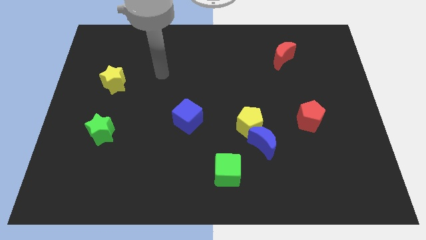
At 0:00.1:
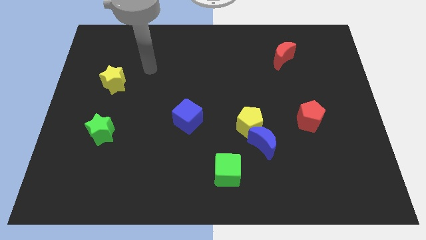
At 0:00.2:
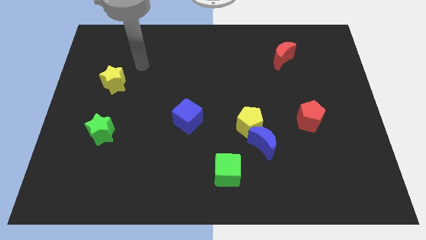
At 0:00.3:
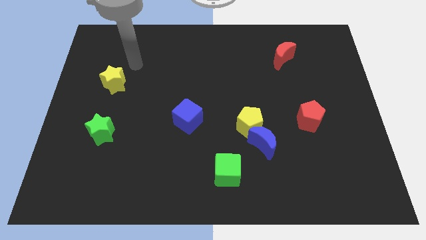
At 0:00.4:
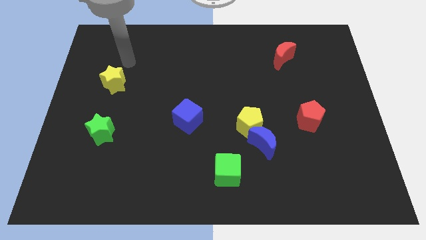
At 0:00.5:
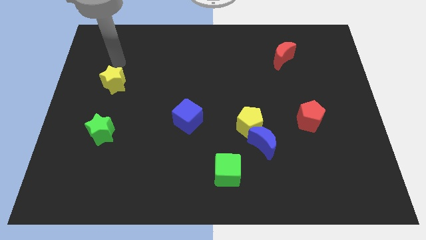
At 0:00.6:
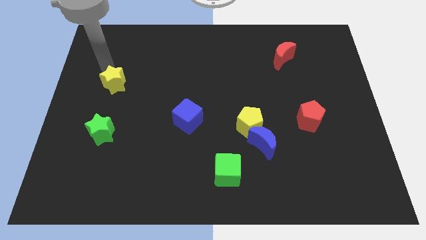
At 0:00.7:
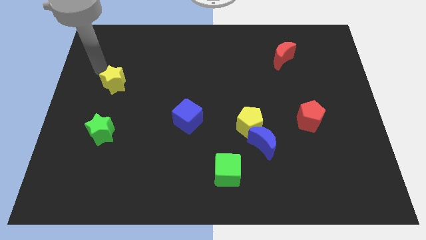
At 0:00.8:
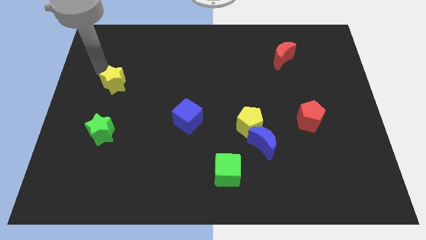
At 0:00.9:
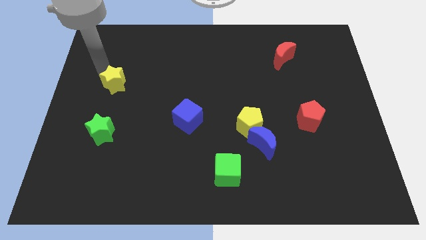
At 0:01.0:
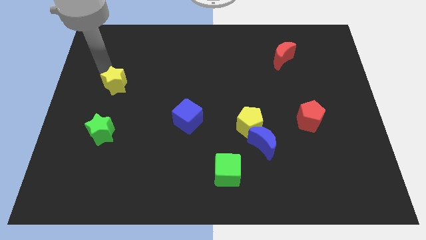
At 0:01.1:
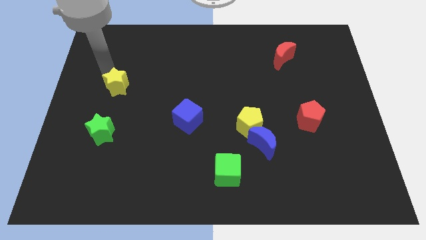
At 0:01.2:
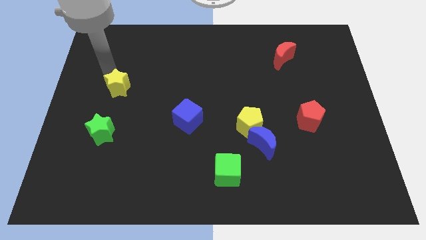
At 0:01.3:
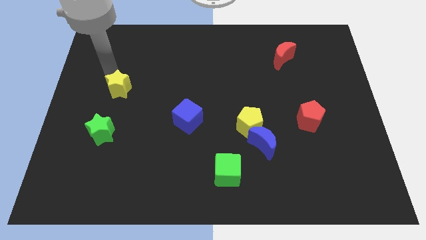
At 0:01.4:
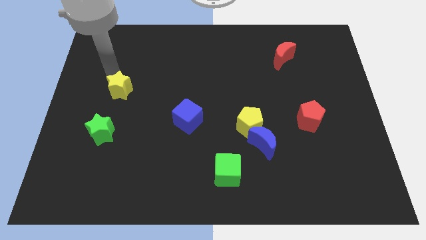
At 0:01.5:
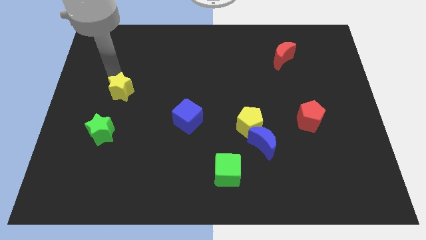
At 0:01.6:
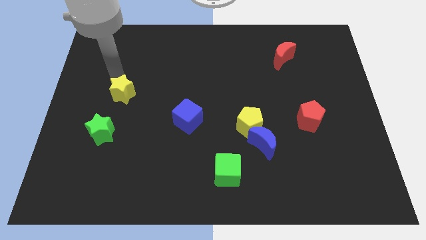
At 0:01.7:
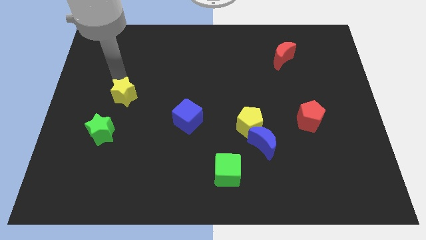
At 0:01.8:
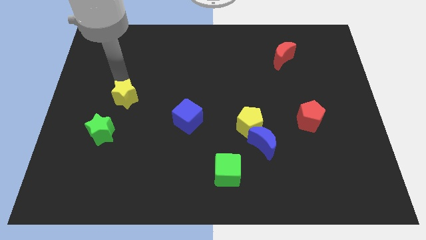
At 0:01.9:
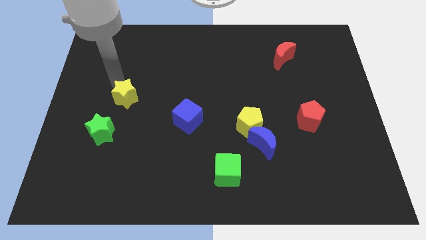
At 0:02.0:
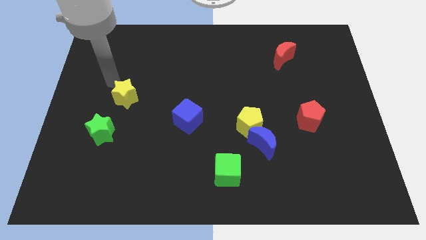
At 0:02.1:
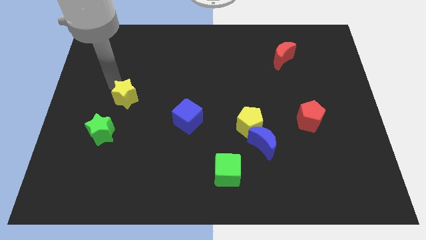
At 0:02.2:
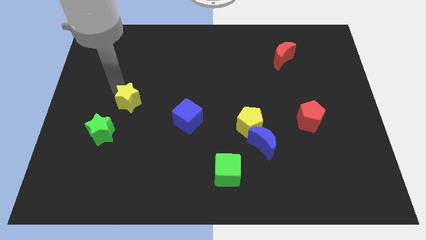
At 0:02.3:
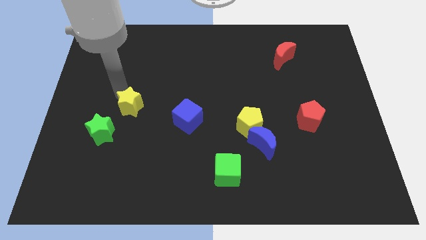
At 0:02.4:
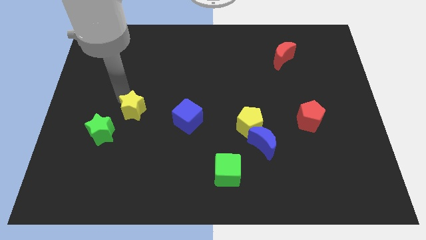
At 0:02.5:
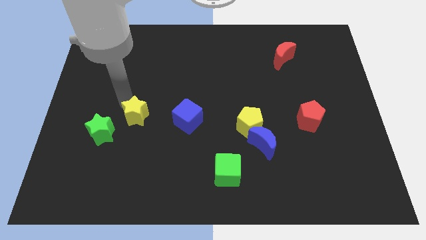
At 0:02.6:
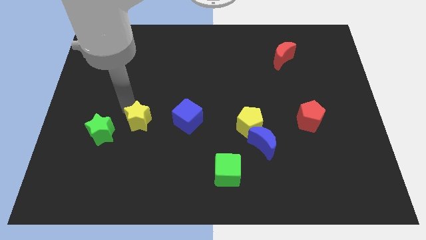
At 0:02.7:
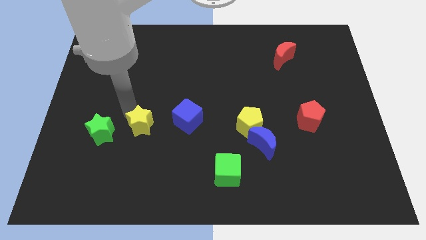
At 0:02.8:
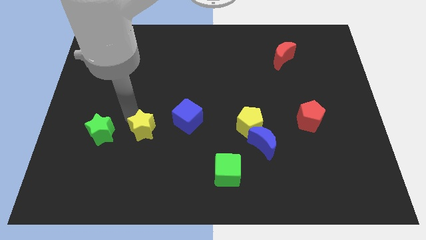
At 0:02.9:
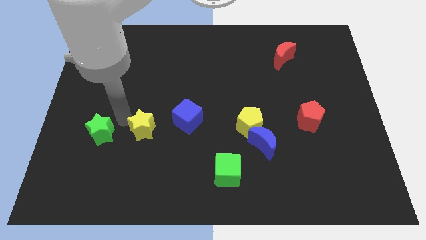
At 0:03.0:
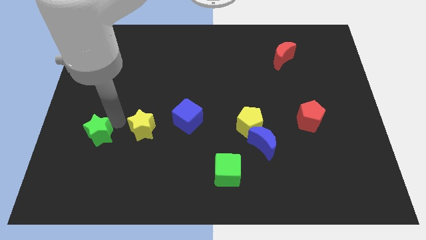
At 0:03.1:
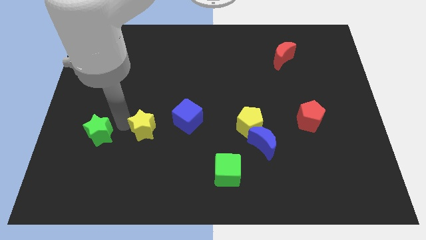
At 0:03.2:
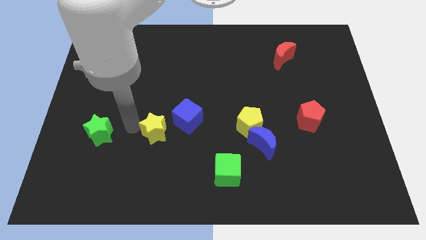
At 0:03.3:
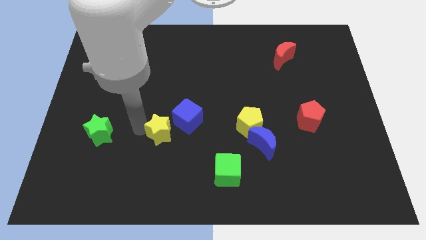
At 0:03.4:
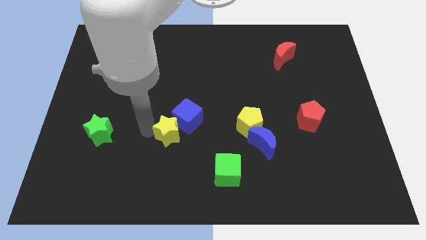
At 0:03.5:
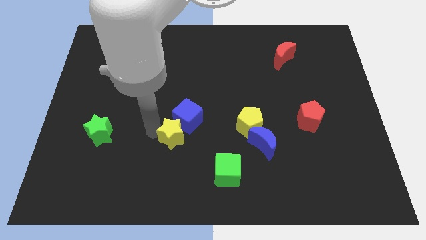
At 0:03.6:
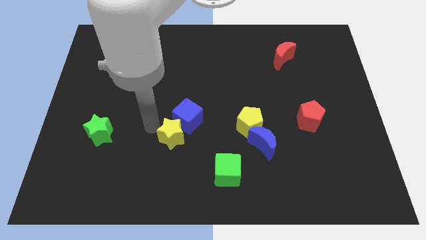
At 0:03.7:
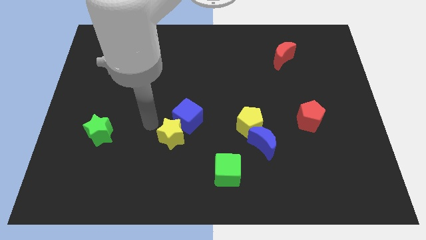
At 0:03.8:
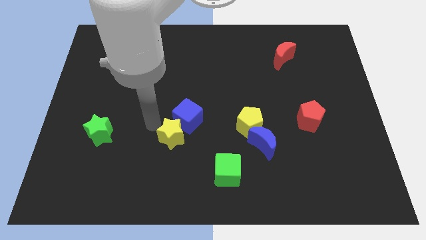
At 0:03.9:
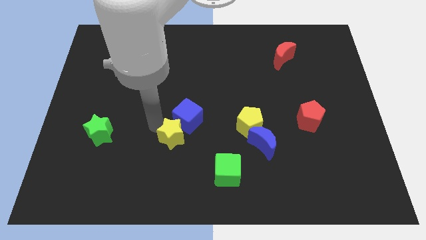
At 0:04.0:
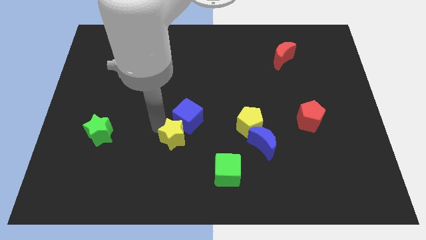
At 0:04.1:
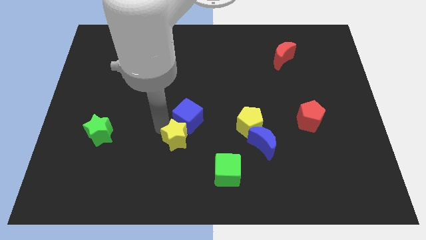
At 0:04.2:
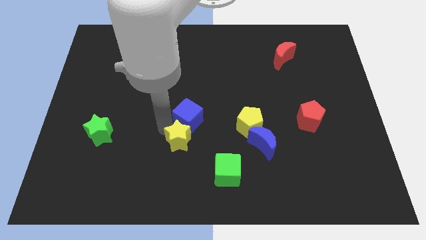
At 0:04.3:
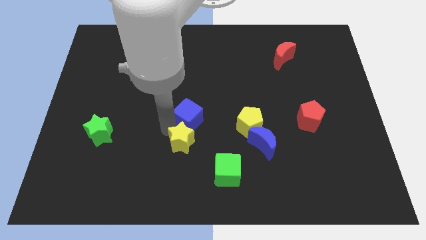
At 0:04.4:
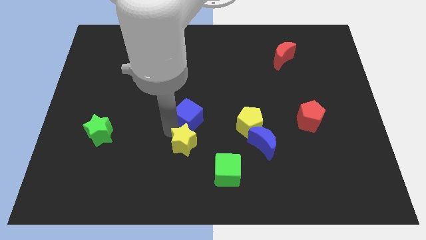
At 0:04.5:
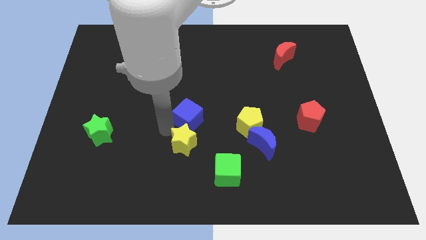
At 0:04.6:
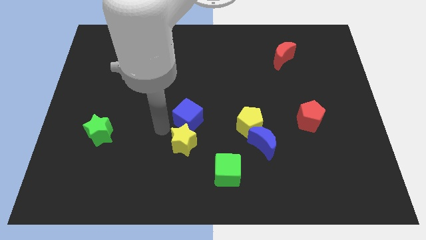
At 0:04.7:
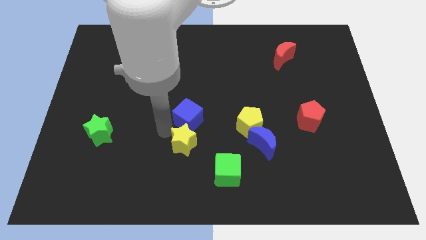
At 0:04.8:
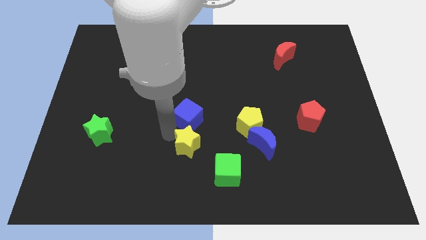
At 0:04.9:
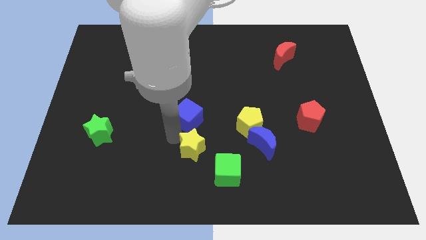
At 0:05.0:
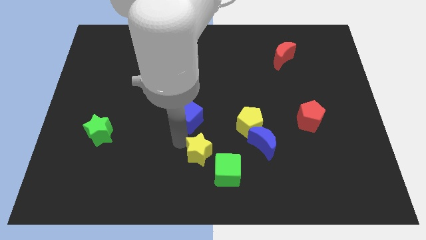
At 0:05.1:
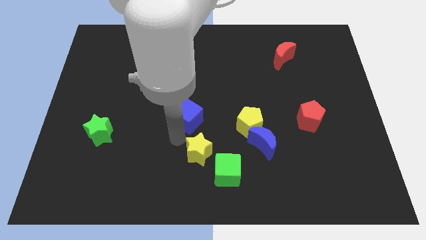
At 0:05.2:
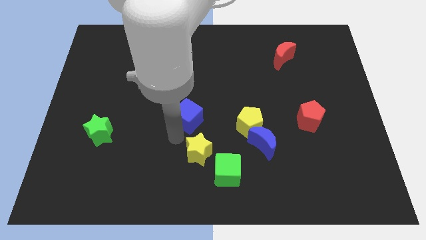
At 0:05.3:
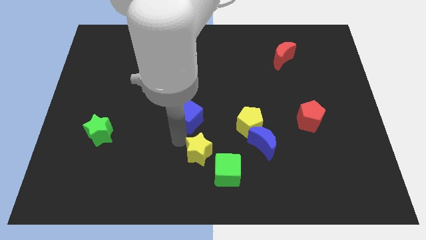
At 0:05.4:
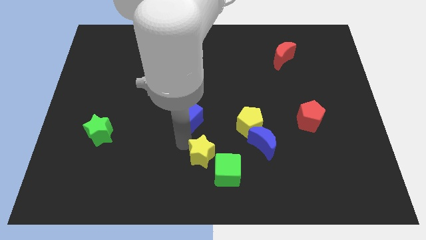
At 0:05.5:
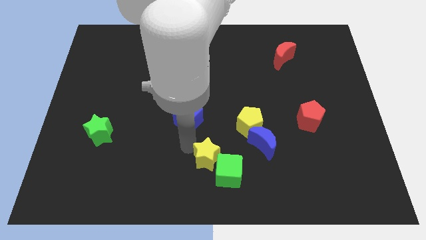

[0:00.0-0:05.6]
slide the yellow star towards the green cube

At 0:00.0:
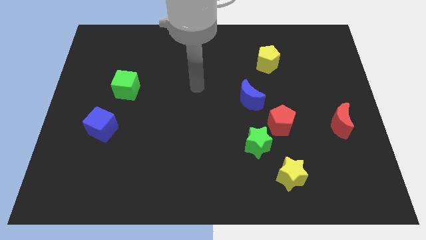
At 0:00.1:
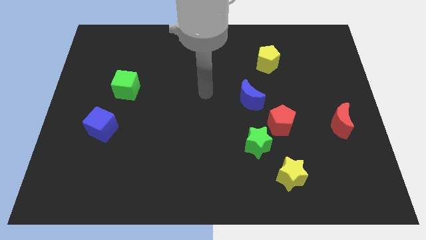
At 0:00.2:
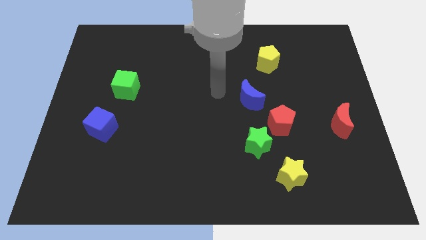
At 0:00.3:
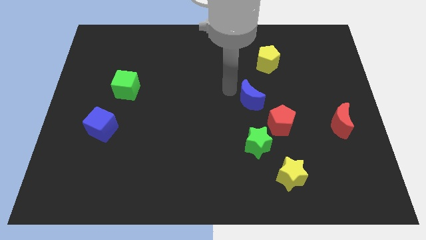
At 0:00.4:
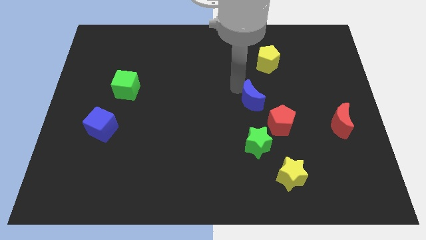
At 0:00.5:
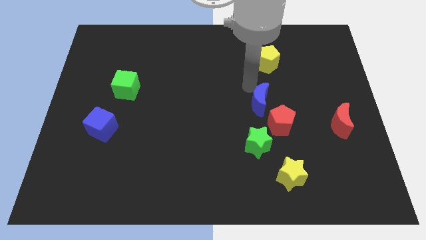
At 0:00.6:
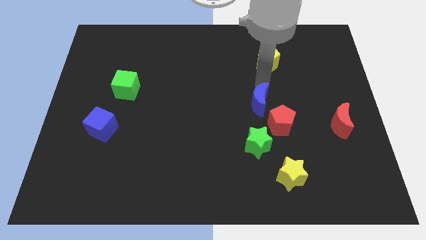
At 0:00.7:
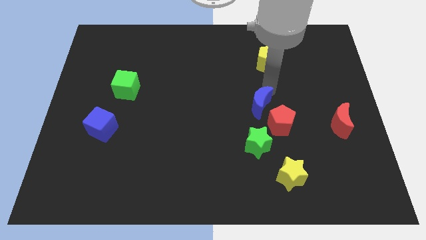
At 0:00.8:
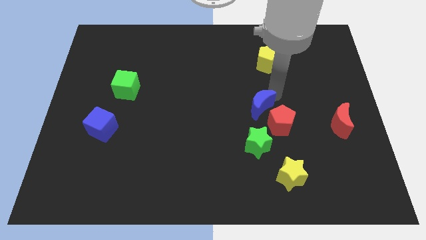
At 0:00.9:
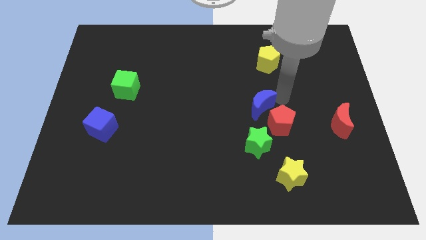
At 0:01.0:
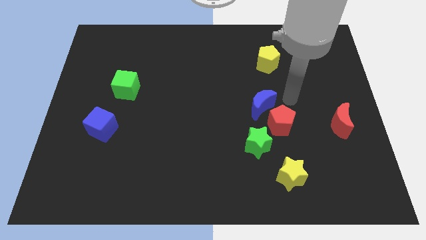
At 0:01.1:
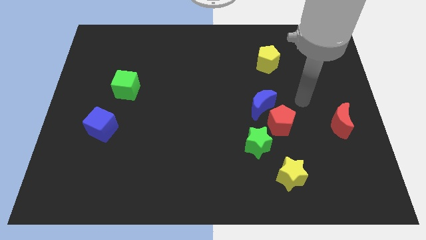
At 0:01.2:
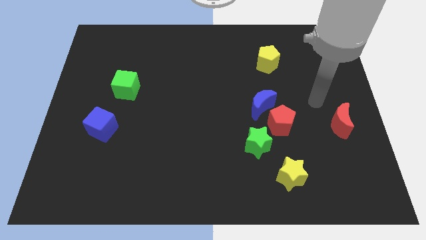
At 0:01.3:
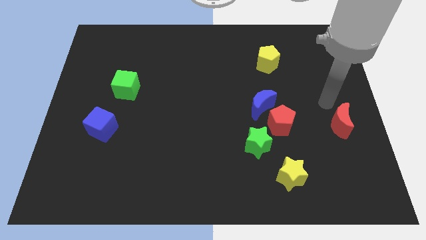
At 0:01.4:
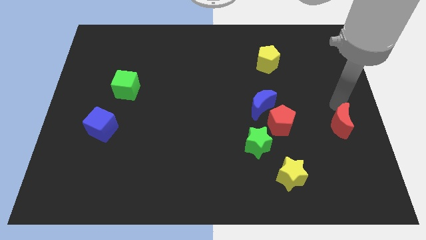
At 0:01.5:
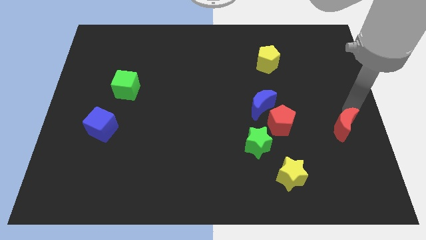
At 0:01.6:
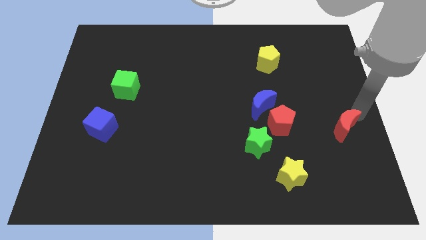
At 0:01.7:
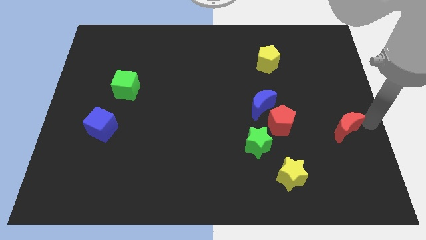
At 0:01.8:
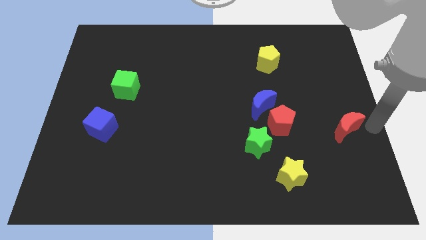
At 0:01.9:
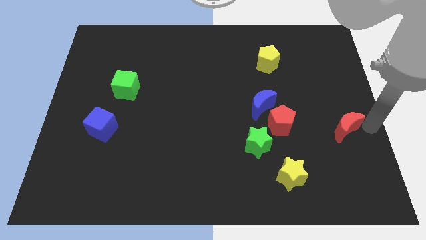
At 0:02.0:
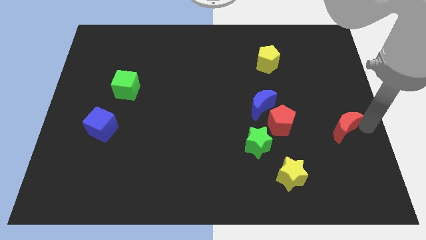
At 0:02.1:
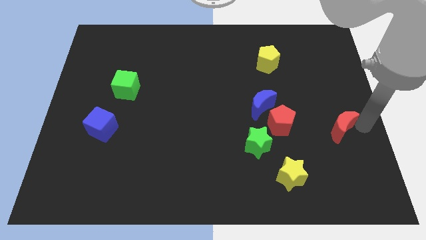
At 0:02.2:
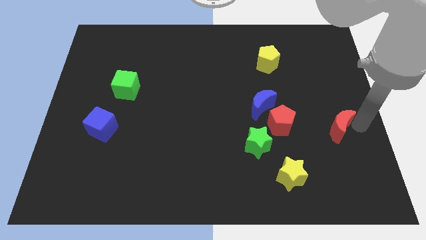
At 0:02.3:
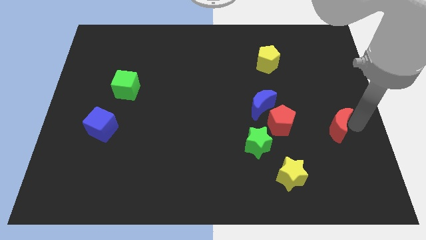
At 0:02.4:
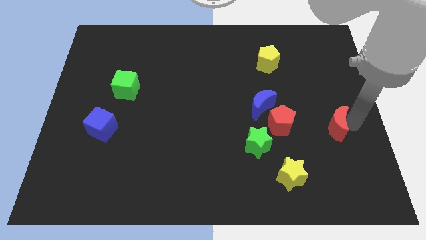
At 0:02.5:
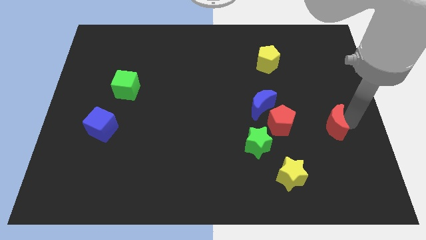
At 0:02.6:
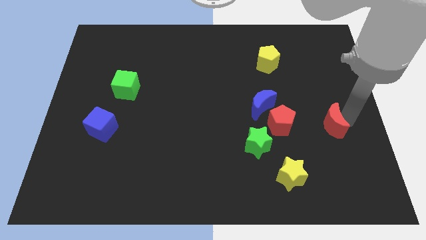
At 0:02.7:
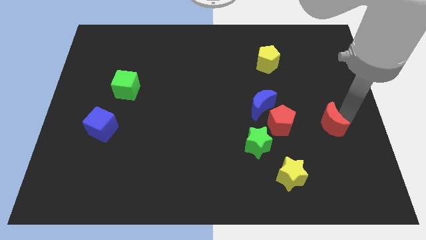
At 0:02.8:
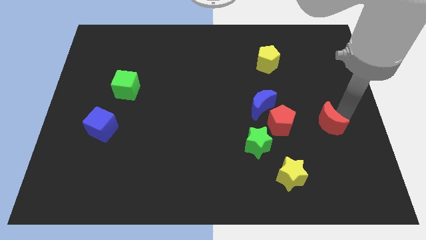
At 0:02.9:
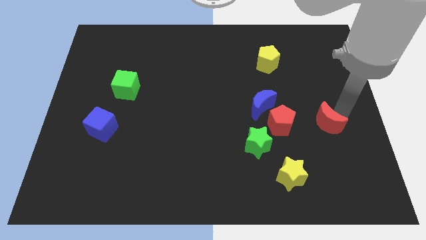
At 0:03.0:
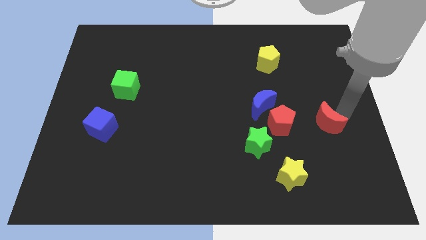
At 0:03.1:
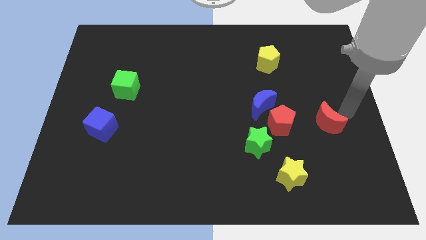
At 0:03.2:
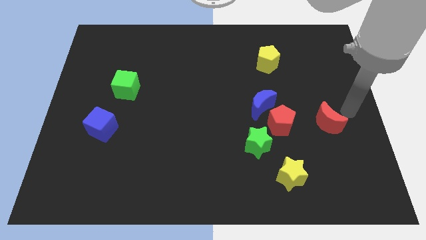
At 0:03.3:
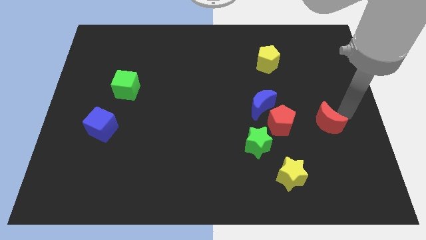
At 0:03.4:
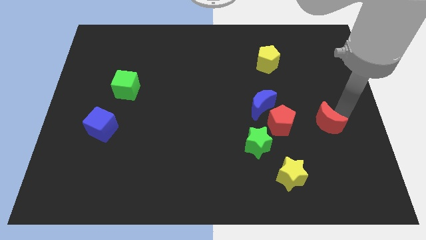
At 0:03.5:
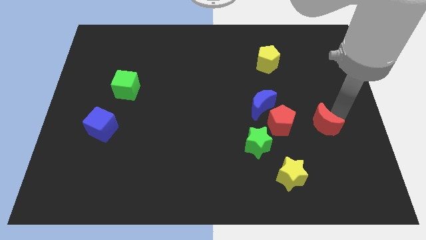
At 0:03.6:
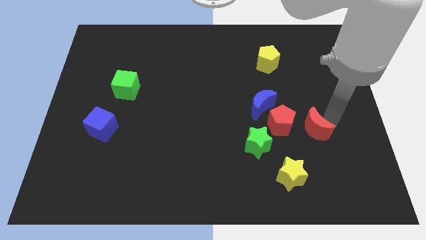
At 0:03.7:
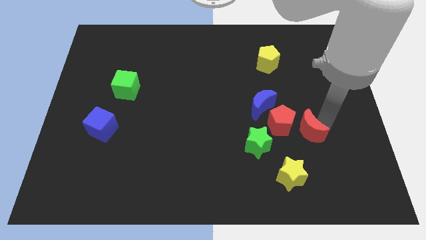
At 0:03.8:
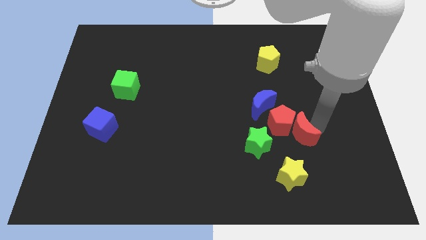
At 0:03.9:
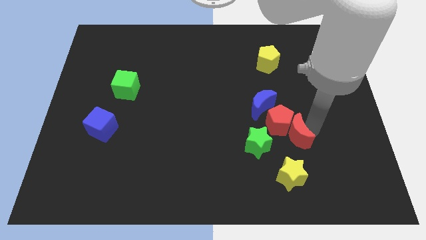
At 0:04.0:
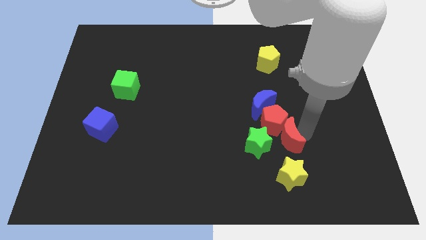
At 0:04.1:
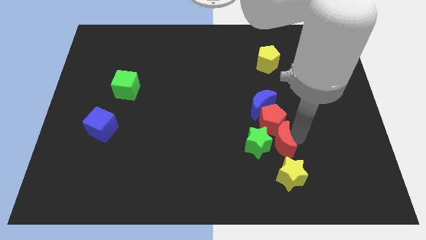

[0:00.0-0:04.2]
move the red moon to the green star
